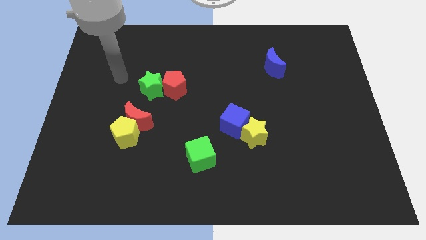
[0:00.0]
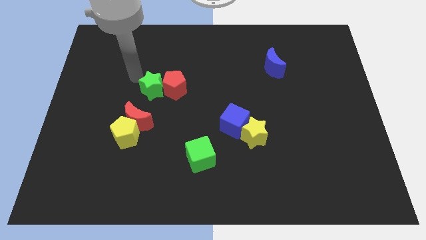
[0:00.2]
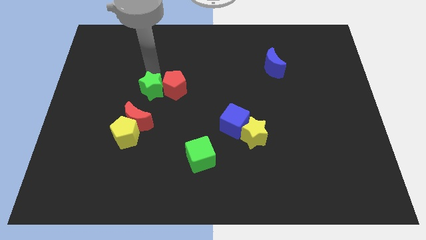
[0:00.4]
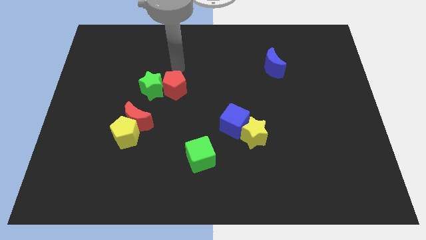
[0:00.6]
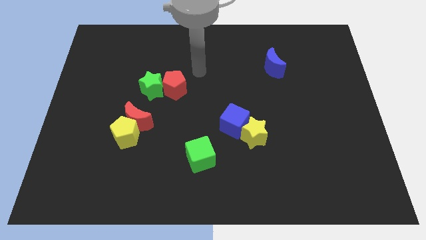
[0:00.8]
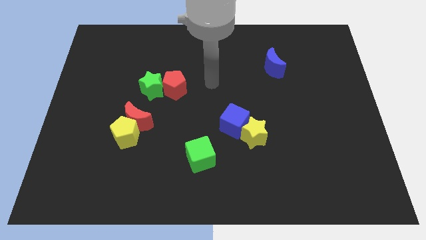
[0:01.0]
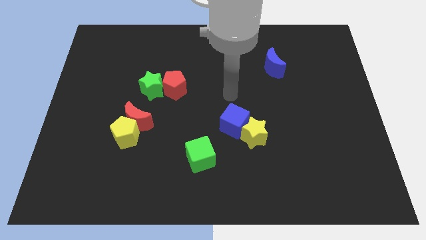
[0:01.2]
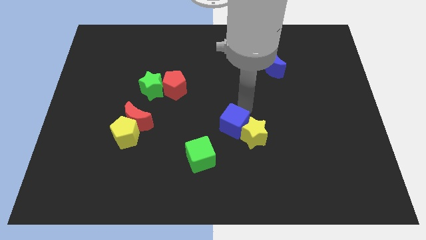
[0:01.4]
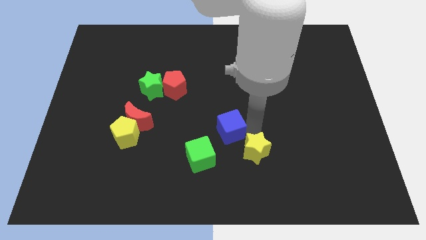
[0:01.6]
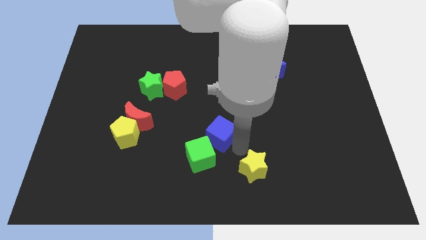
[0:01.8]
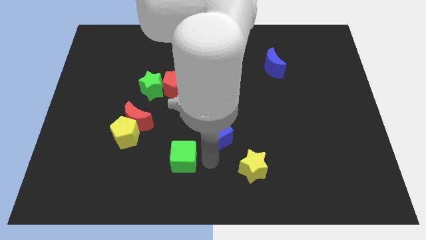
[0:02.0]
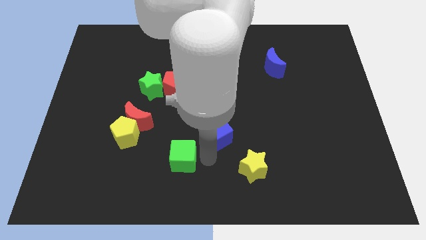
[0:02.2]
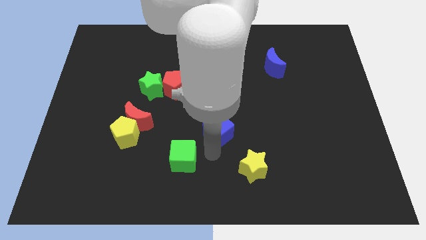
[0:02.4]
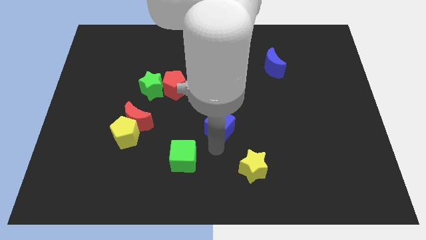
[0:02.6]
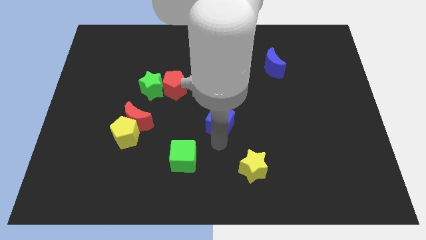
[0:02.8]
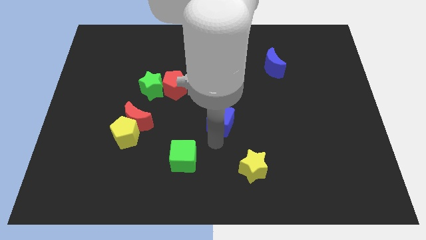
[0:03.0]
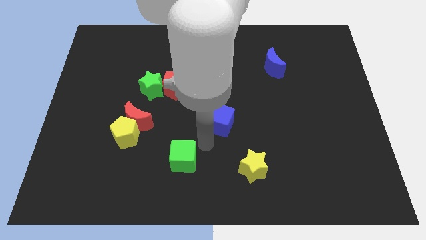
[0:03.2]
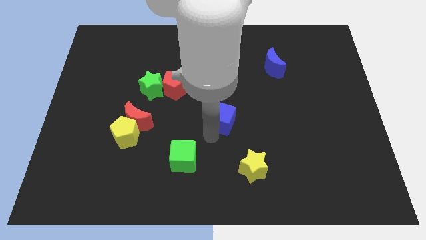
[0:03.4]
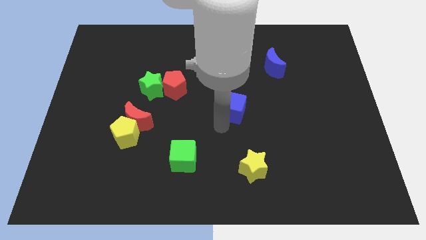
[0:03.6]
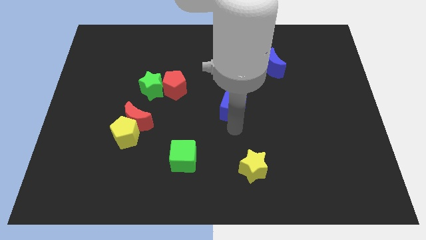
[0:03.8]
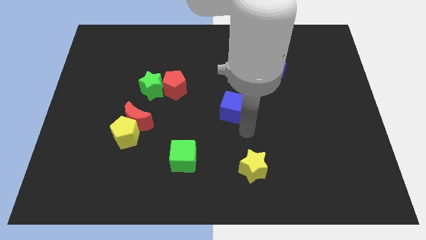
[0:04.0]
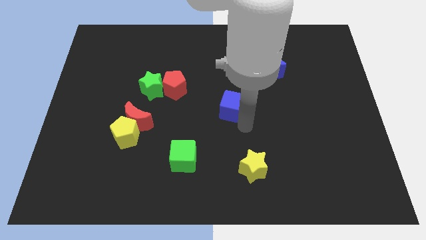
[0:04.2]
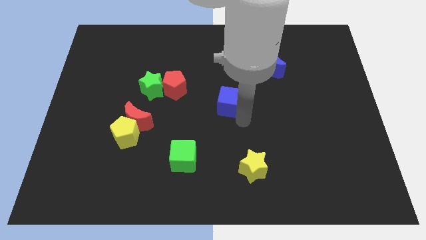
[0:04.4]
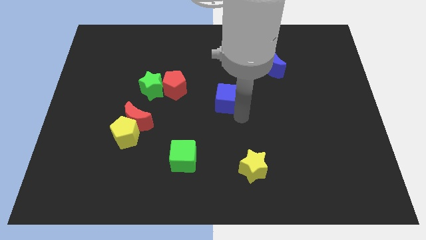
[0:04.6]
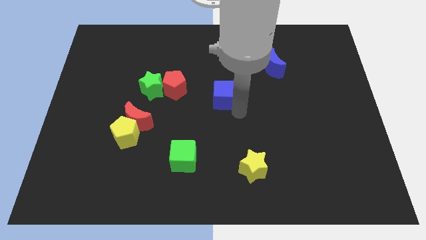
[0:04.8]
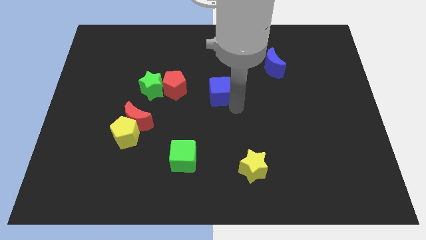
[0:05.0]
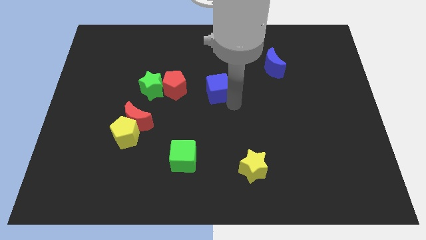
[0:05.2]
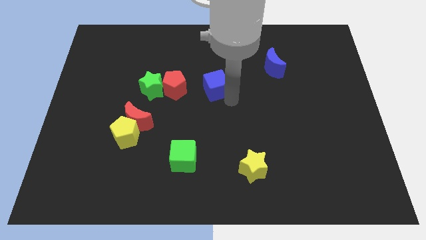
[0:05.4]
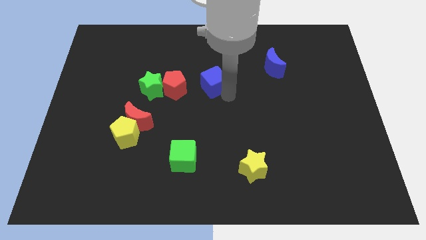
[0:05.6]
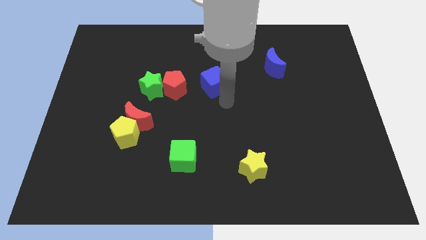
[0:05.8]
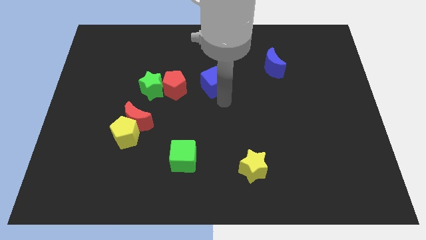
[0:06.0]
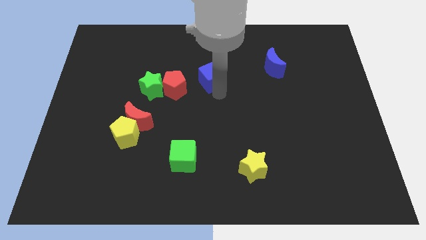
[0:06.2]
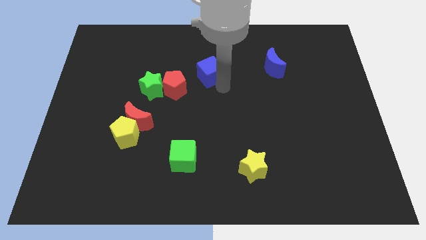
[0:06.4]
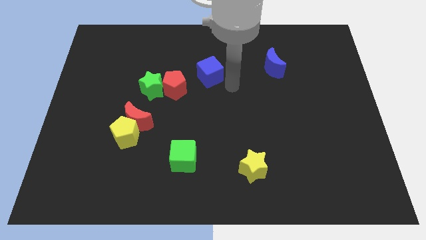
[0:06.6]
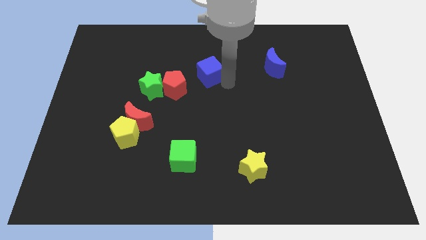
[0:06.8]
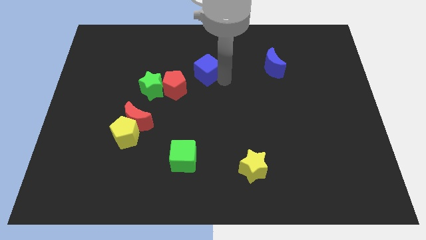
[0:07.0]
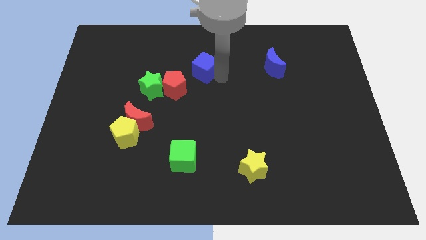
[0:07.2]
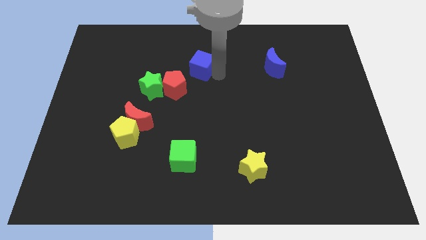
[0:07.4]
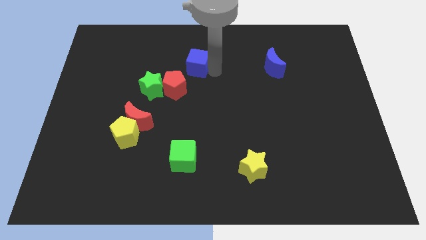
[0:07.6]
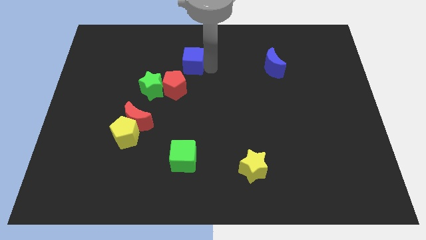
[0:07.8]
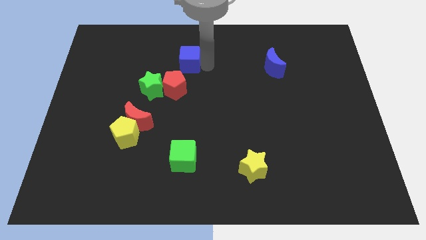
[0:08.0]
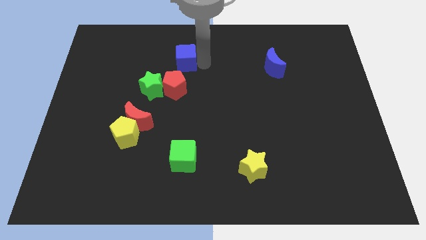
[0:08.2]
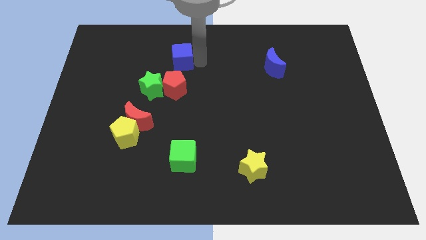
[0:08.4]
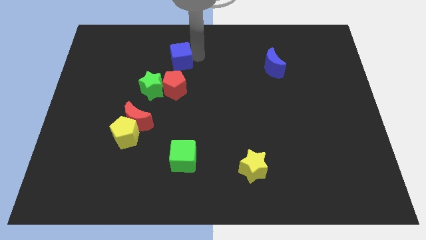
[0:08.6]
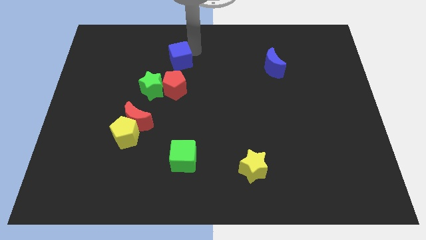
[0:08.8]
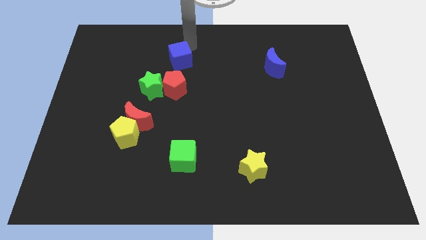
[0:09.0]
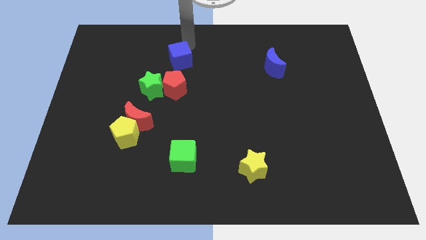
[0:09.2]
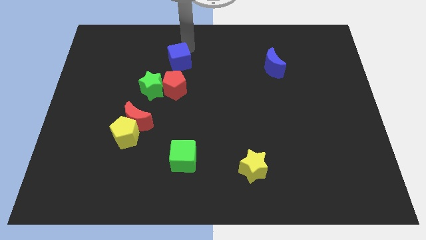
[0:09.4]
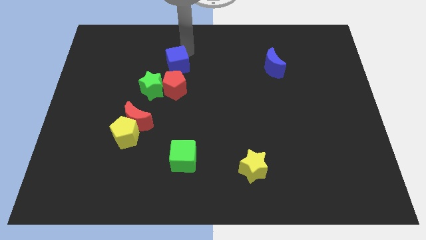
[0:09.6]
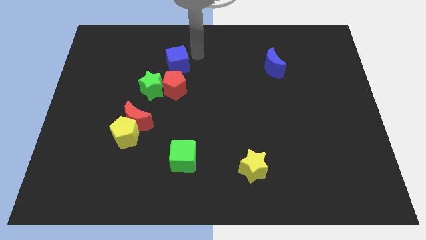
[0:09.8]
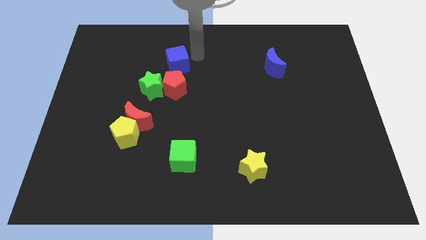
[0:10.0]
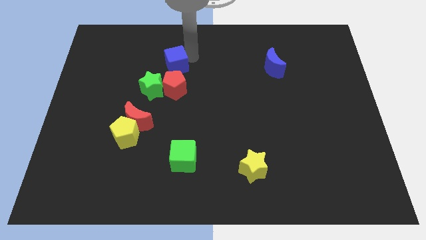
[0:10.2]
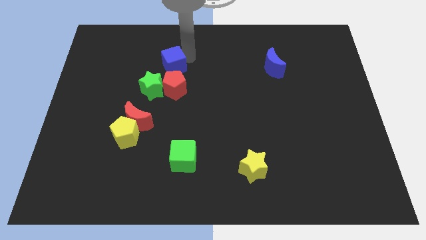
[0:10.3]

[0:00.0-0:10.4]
move the blue cube to the top left side of the red pentagon

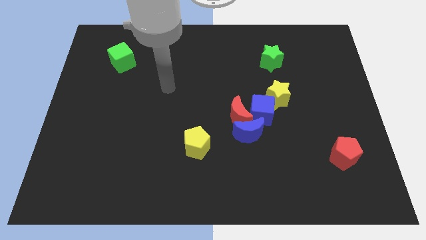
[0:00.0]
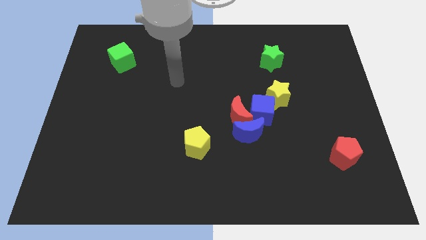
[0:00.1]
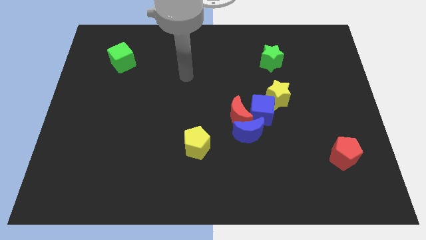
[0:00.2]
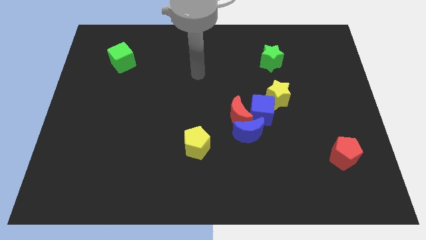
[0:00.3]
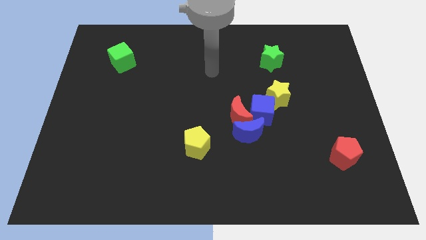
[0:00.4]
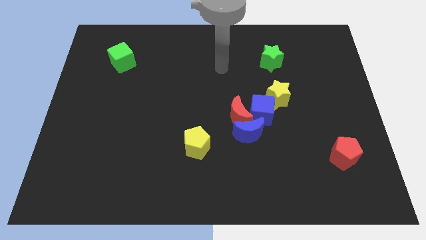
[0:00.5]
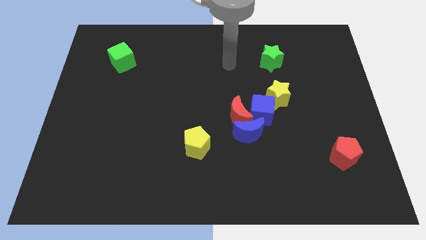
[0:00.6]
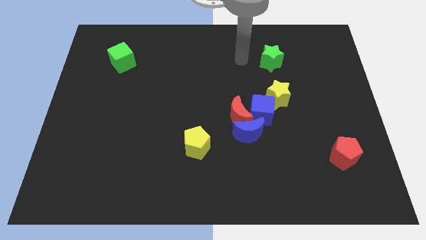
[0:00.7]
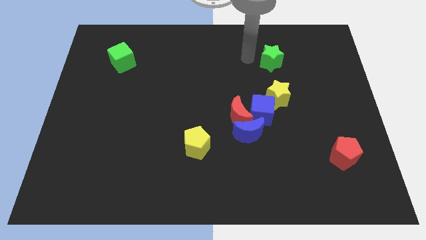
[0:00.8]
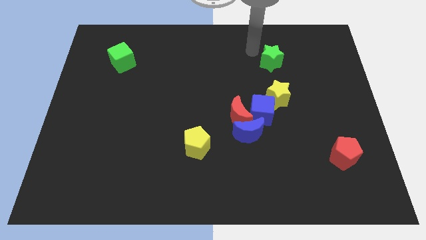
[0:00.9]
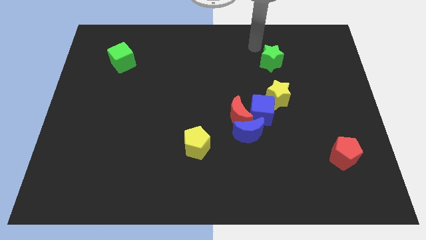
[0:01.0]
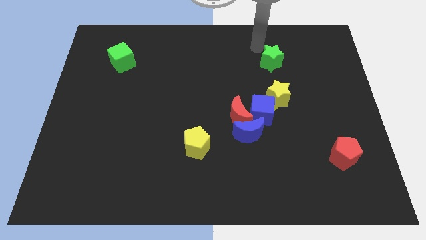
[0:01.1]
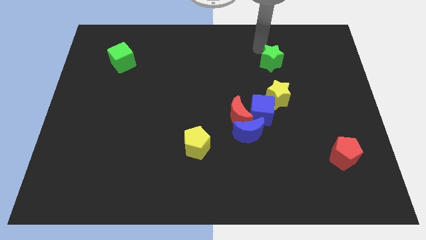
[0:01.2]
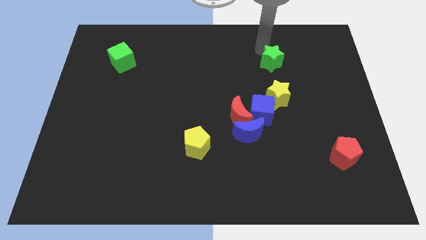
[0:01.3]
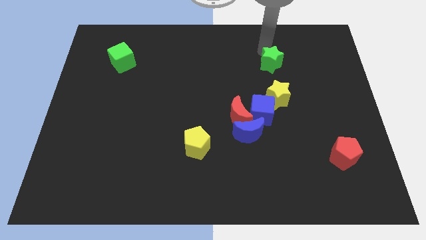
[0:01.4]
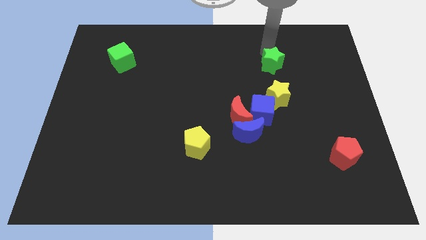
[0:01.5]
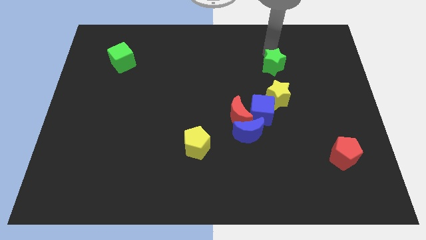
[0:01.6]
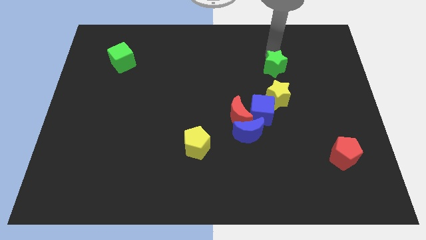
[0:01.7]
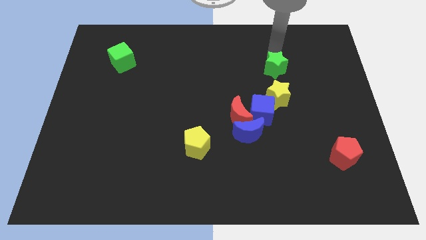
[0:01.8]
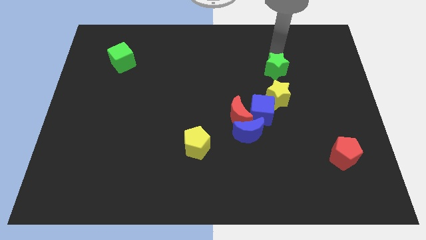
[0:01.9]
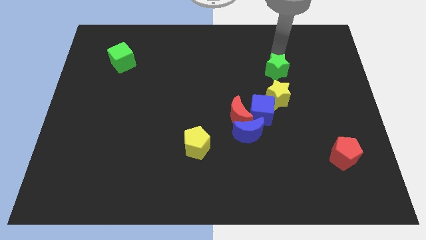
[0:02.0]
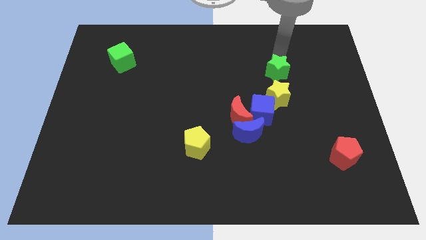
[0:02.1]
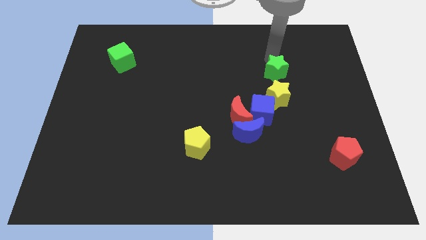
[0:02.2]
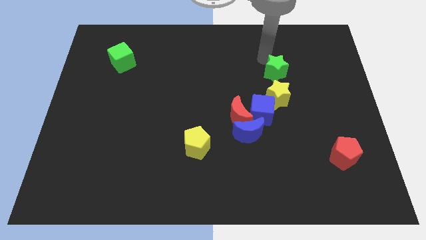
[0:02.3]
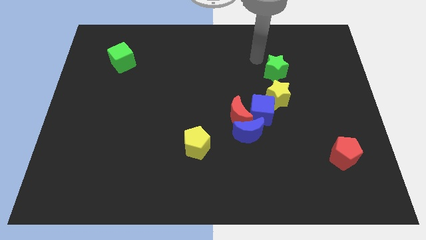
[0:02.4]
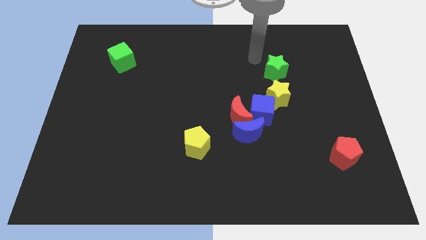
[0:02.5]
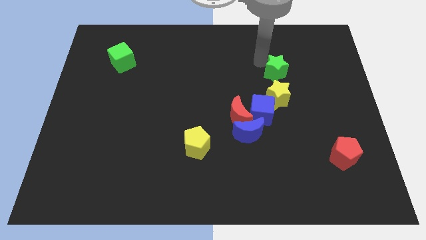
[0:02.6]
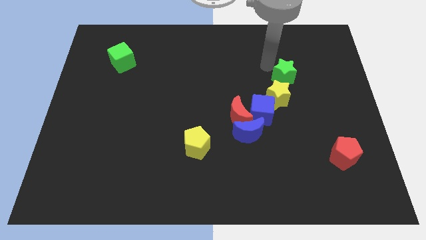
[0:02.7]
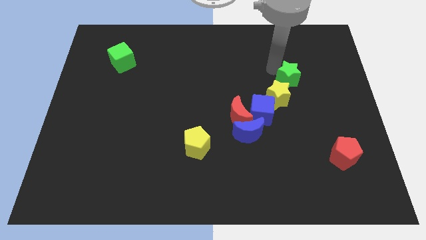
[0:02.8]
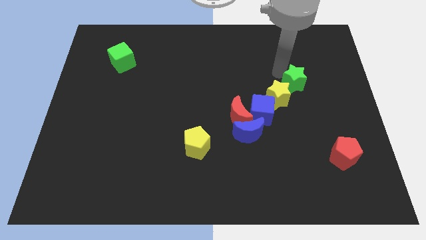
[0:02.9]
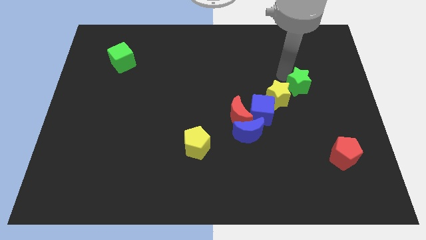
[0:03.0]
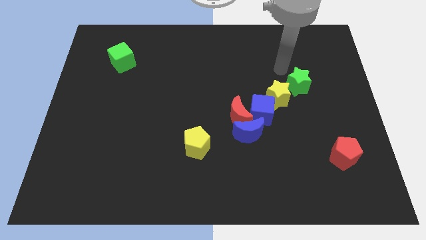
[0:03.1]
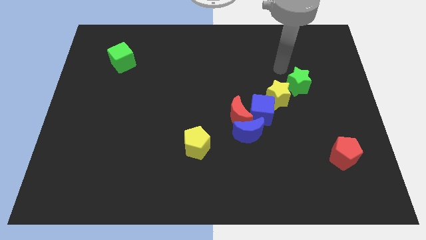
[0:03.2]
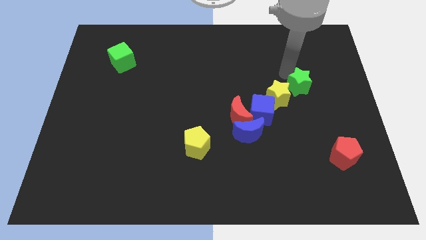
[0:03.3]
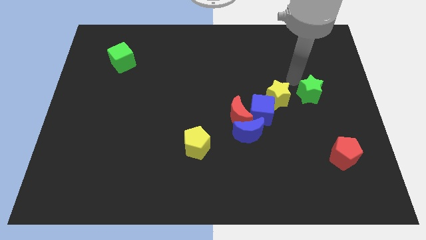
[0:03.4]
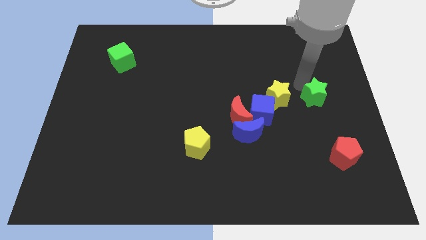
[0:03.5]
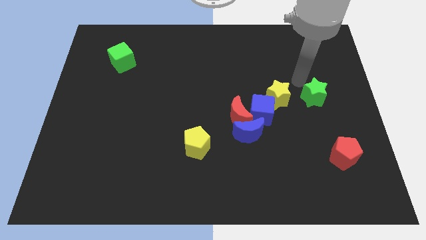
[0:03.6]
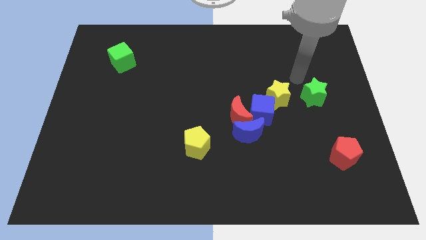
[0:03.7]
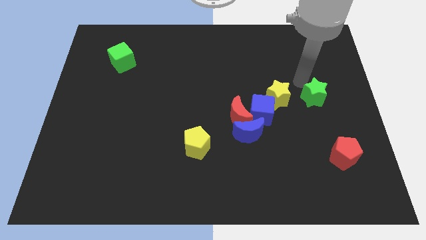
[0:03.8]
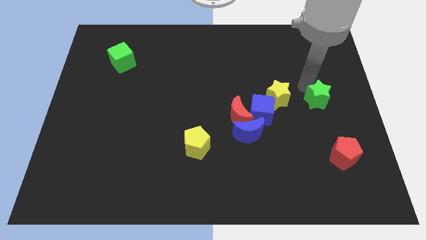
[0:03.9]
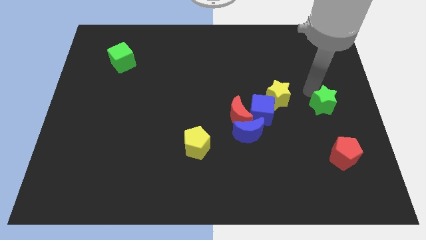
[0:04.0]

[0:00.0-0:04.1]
put the green star to the top of the red pentagon
